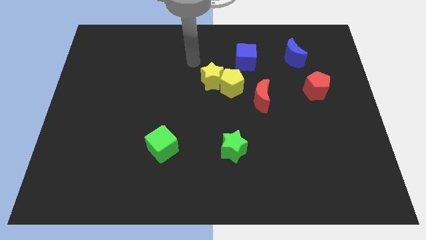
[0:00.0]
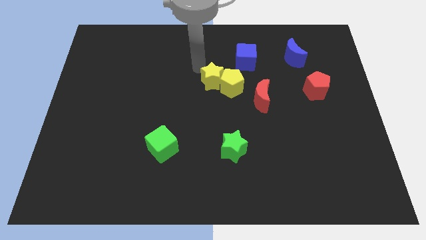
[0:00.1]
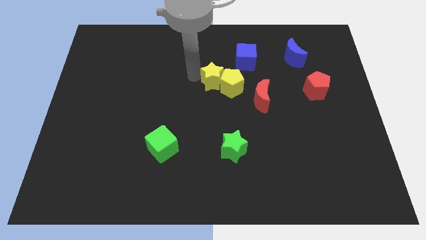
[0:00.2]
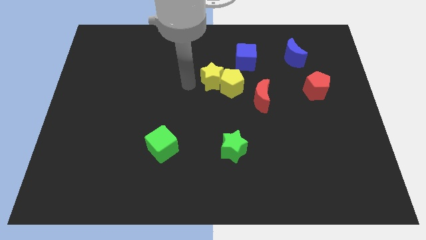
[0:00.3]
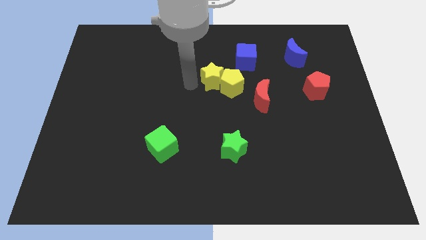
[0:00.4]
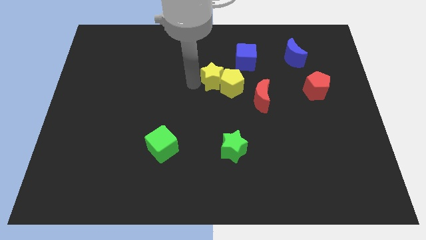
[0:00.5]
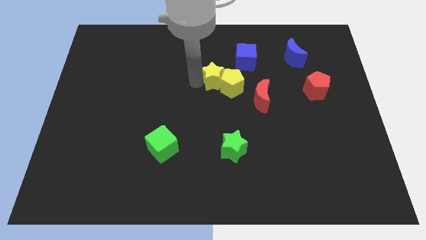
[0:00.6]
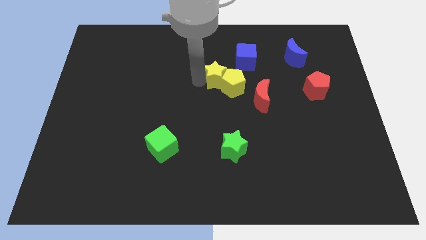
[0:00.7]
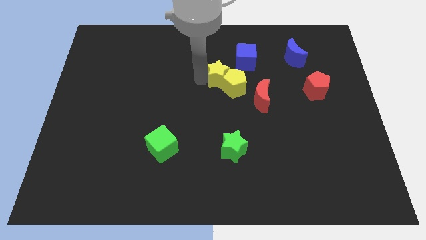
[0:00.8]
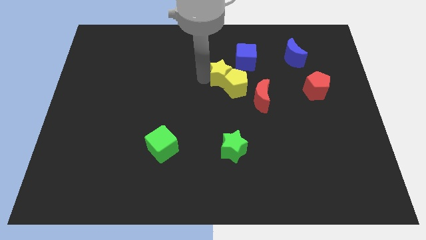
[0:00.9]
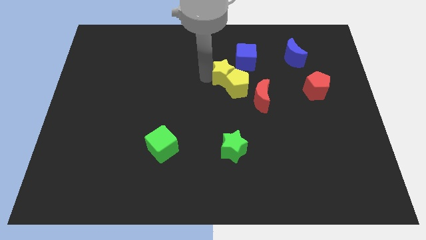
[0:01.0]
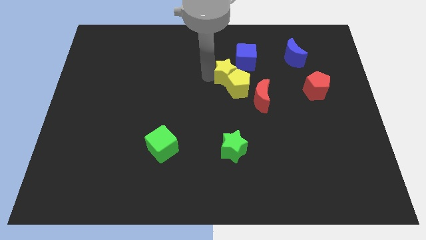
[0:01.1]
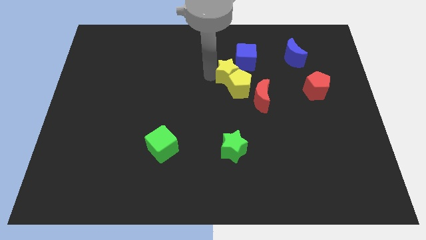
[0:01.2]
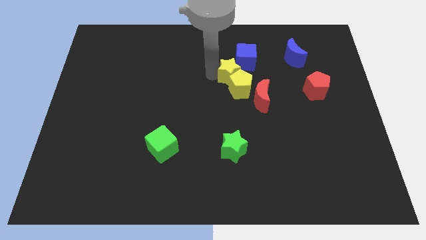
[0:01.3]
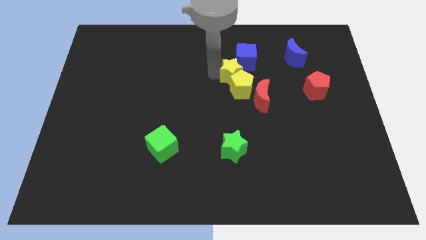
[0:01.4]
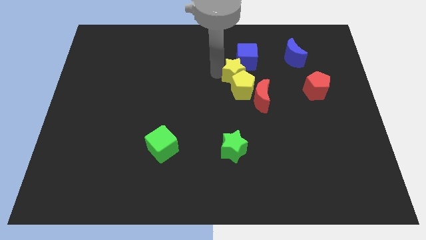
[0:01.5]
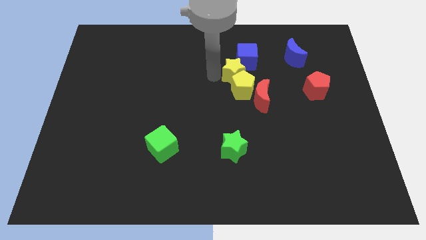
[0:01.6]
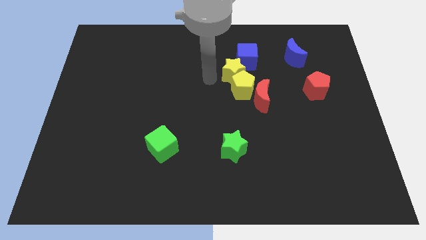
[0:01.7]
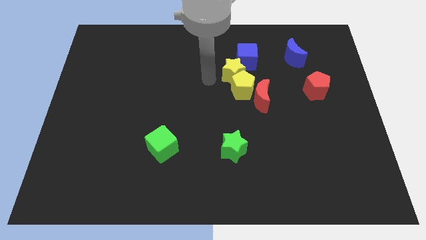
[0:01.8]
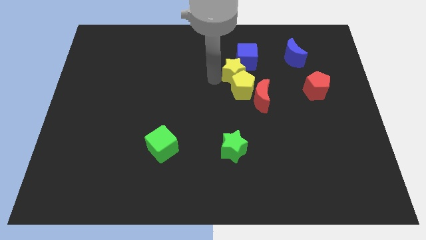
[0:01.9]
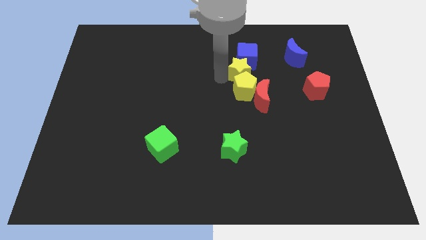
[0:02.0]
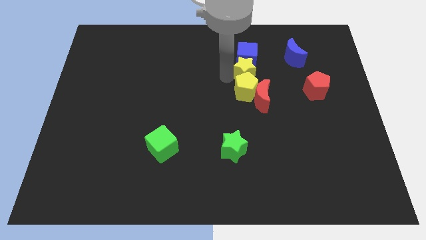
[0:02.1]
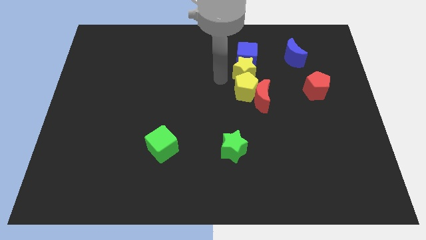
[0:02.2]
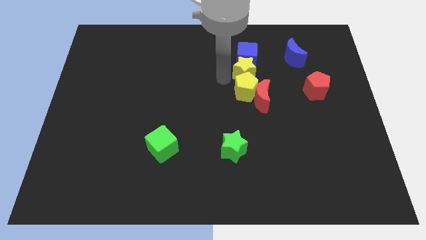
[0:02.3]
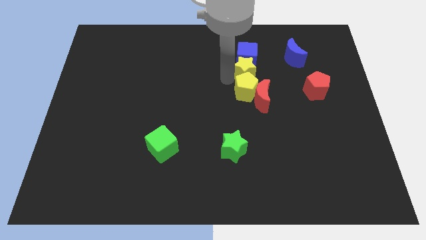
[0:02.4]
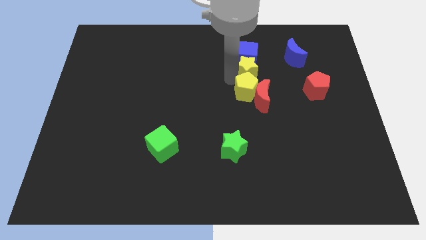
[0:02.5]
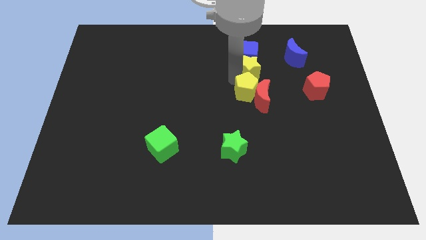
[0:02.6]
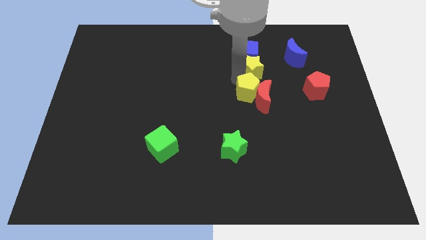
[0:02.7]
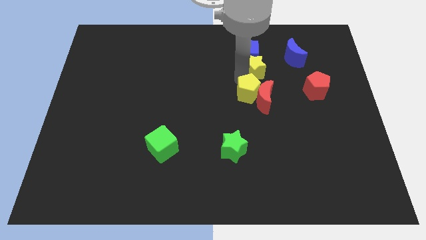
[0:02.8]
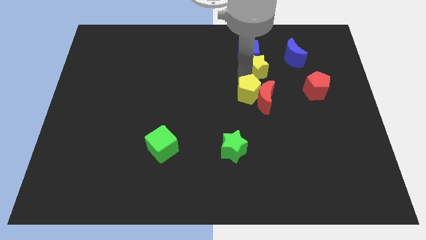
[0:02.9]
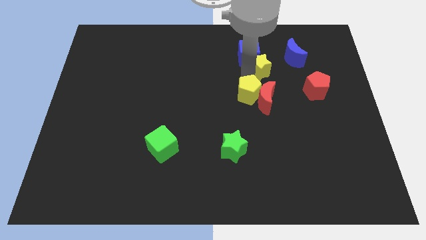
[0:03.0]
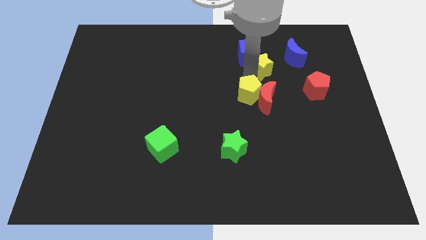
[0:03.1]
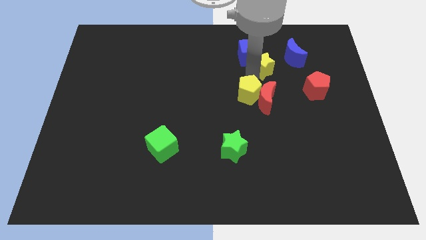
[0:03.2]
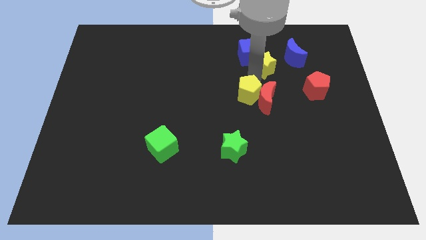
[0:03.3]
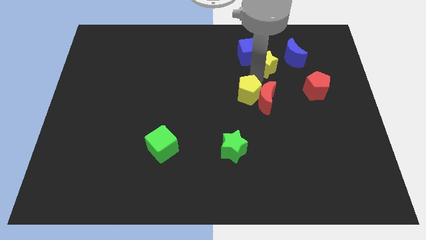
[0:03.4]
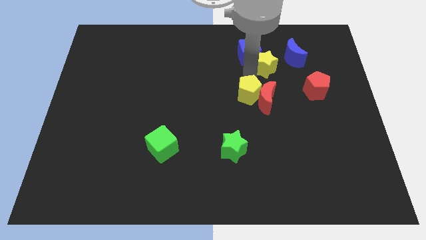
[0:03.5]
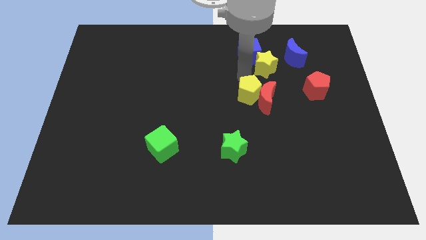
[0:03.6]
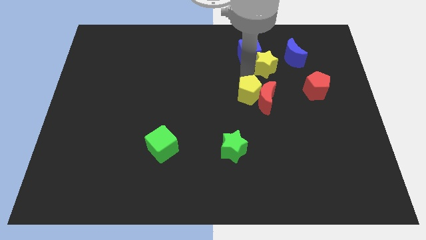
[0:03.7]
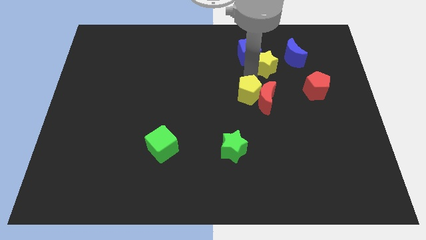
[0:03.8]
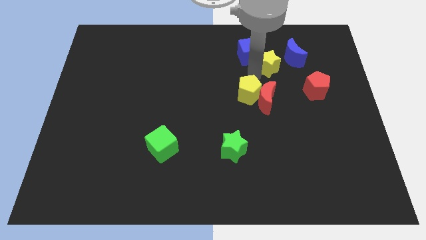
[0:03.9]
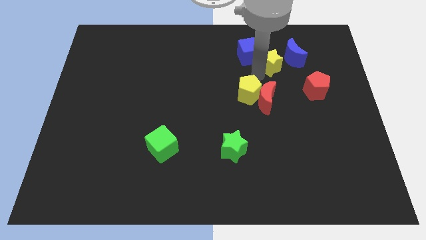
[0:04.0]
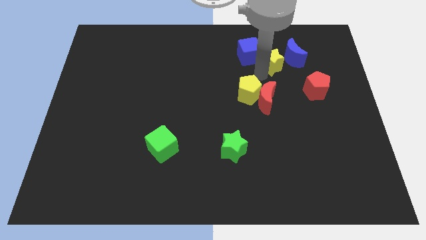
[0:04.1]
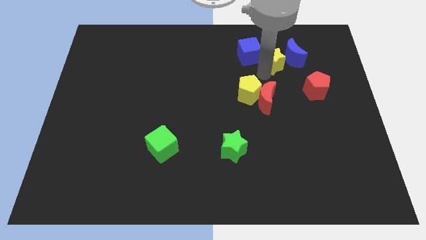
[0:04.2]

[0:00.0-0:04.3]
slide the yellow star next to the blue moon

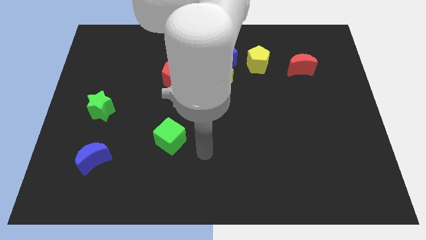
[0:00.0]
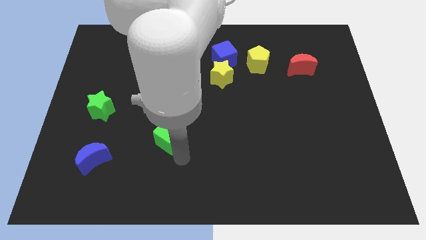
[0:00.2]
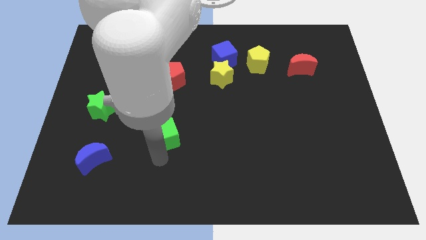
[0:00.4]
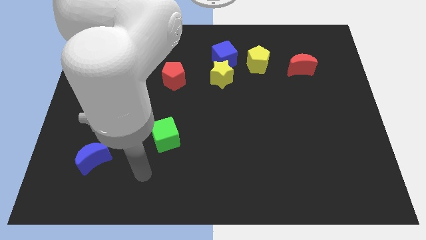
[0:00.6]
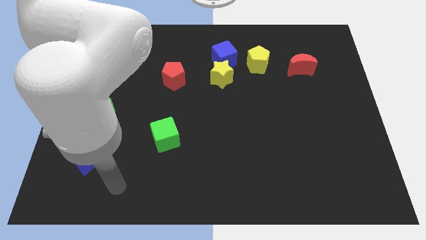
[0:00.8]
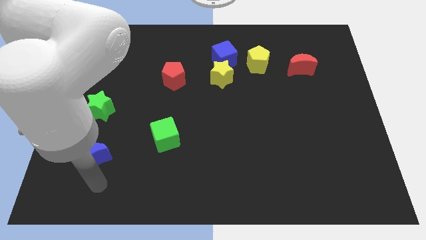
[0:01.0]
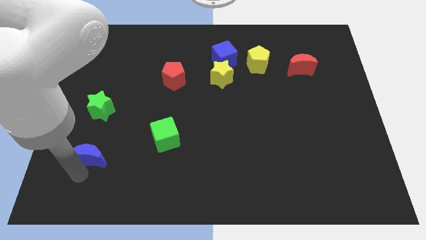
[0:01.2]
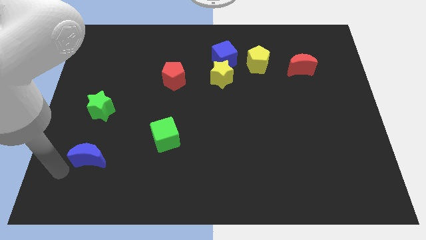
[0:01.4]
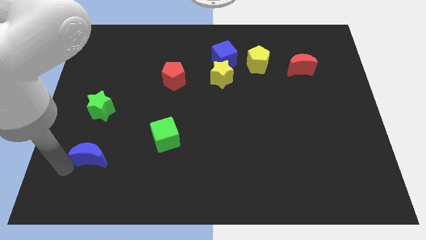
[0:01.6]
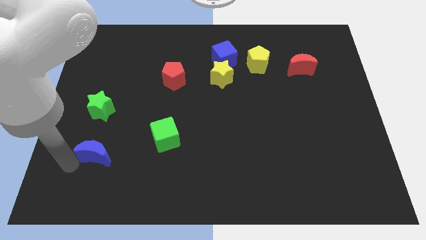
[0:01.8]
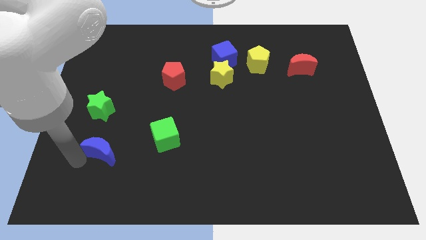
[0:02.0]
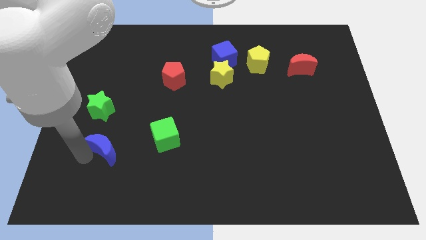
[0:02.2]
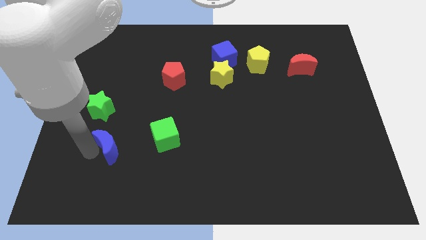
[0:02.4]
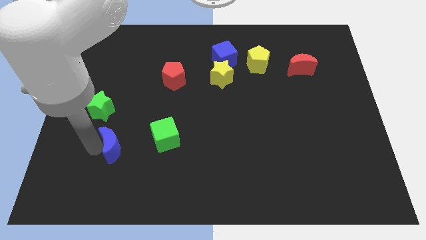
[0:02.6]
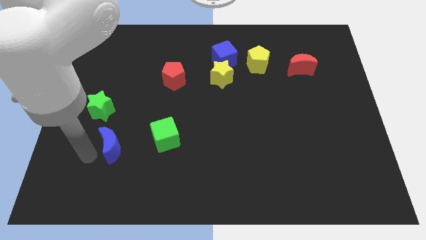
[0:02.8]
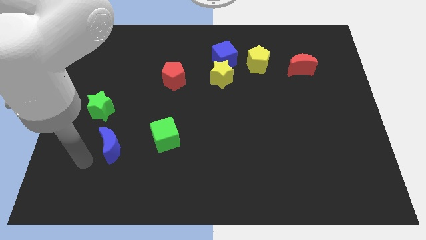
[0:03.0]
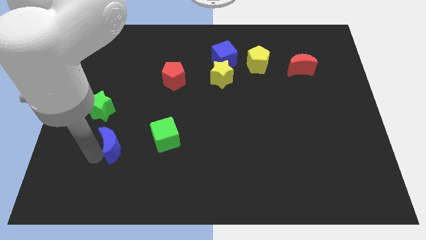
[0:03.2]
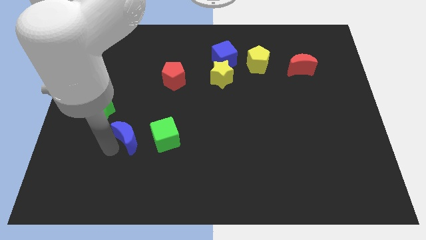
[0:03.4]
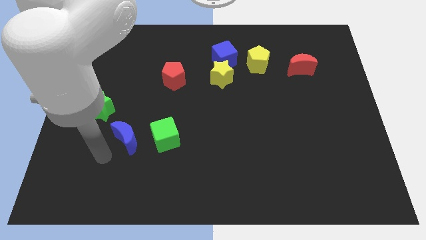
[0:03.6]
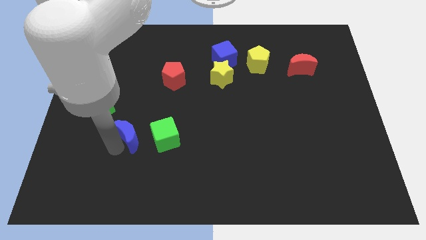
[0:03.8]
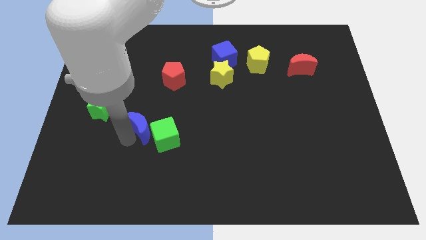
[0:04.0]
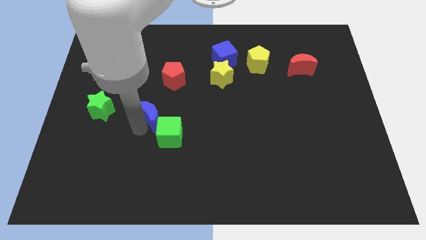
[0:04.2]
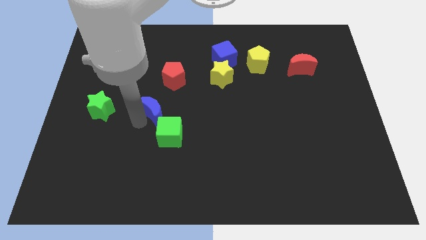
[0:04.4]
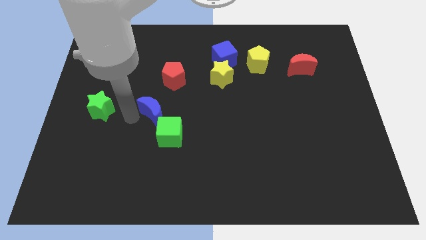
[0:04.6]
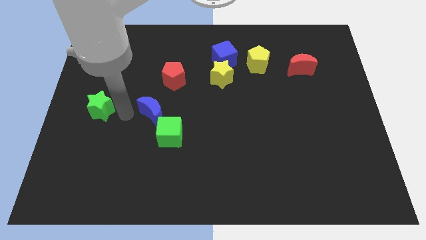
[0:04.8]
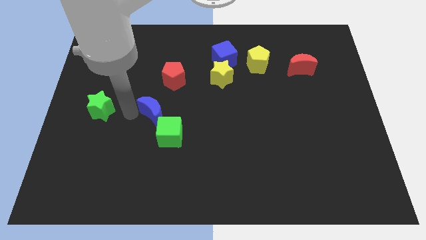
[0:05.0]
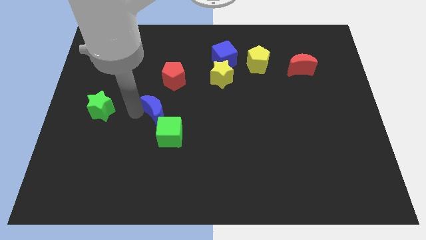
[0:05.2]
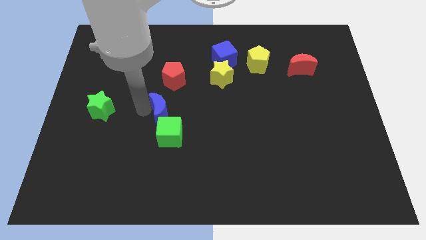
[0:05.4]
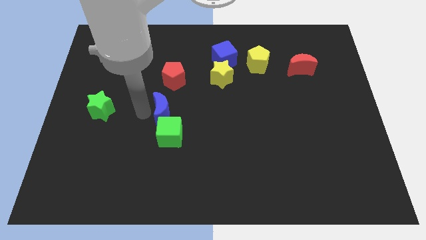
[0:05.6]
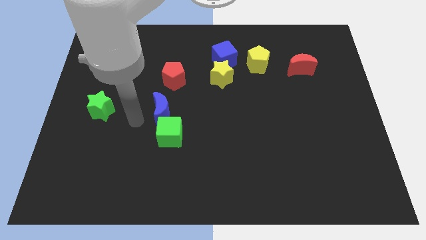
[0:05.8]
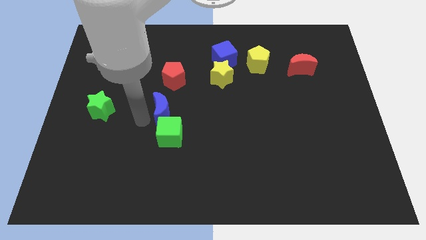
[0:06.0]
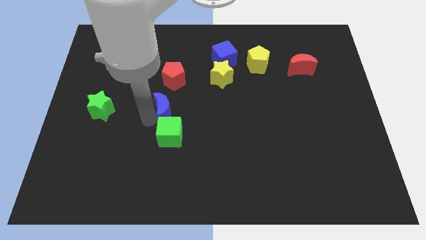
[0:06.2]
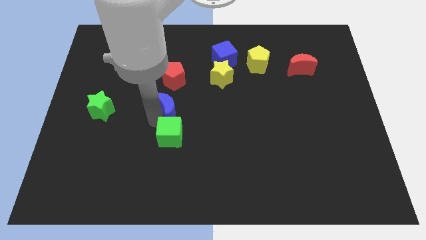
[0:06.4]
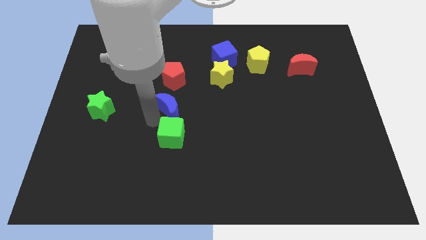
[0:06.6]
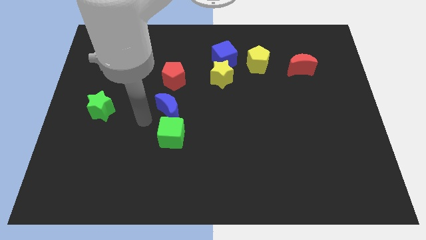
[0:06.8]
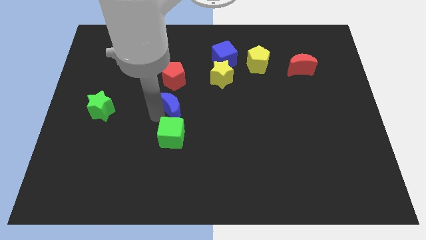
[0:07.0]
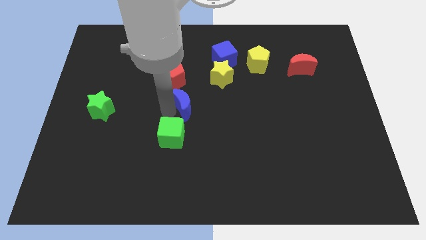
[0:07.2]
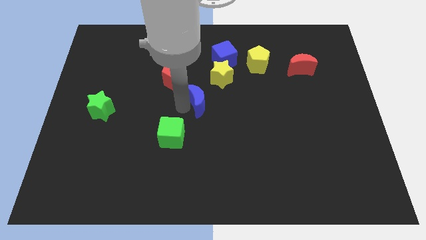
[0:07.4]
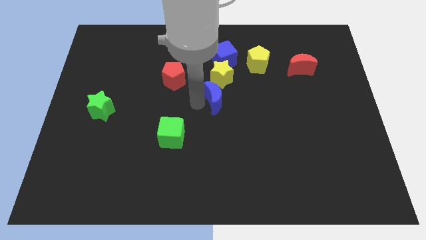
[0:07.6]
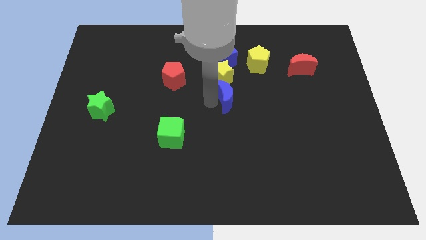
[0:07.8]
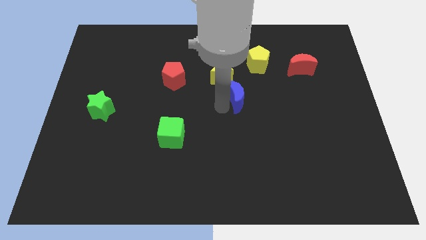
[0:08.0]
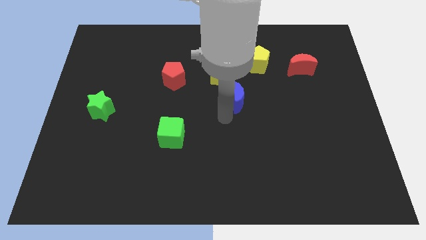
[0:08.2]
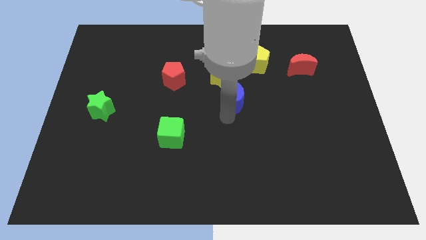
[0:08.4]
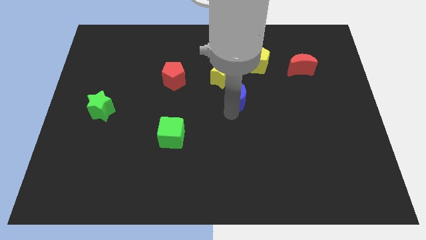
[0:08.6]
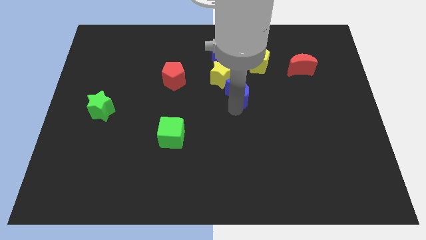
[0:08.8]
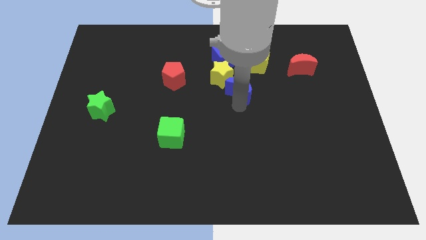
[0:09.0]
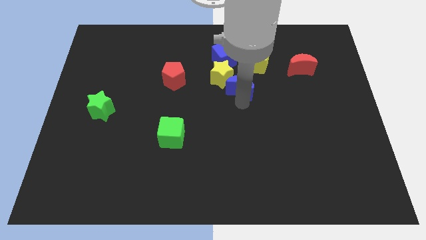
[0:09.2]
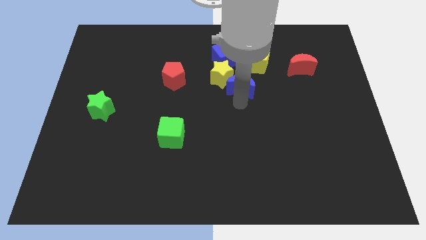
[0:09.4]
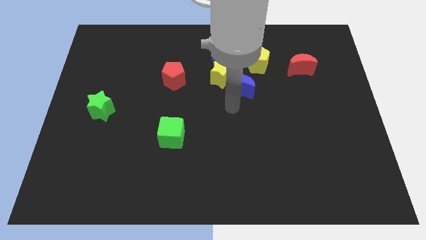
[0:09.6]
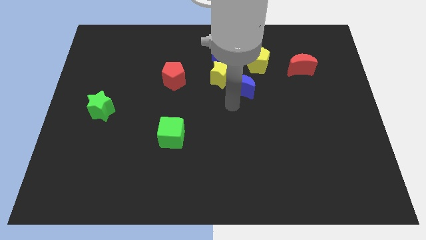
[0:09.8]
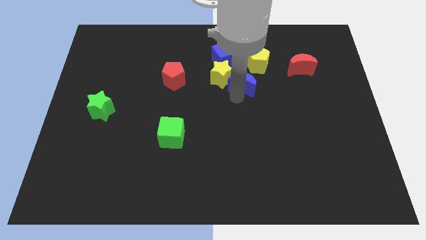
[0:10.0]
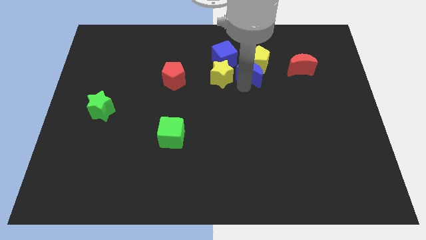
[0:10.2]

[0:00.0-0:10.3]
push the blue moon next to the yellow pentagon
